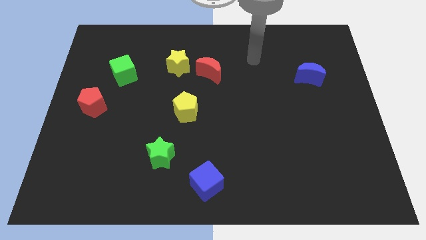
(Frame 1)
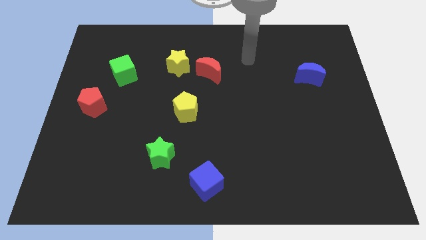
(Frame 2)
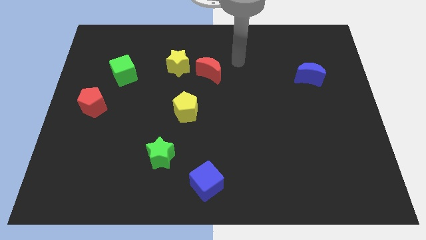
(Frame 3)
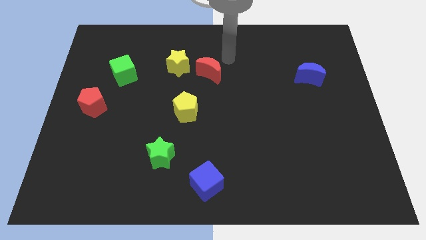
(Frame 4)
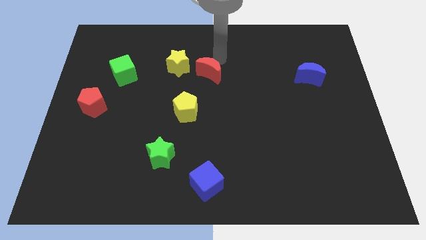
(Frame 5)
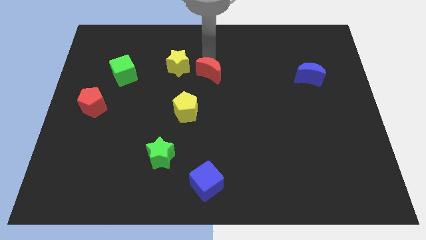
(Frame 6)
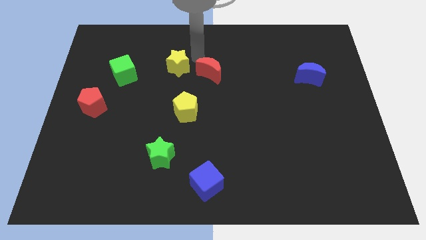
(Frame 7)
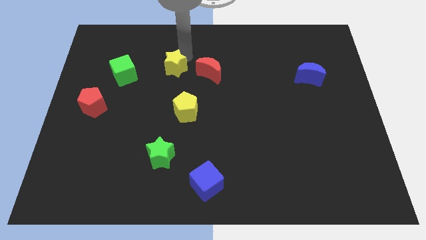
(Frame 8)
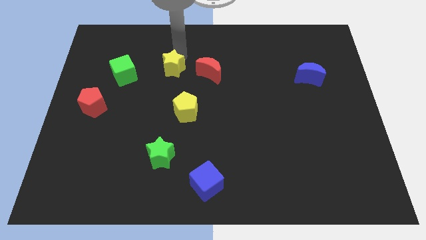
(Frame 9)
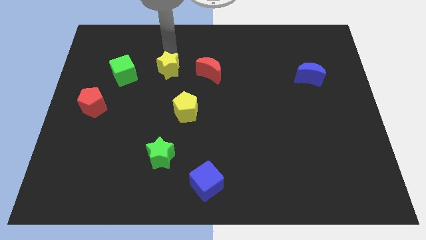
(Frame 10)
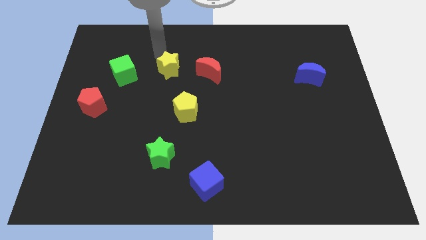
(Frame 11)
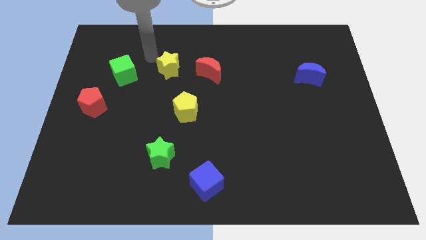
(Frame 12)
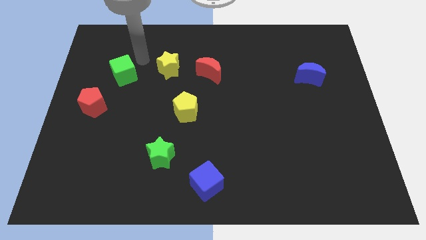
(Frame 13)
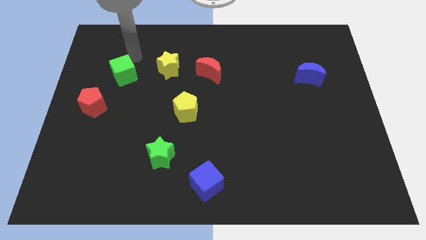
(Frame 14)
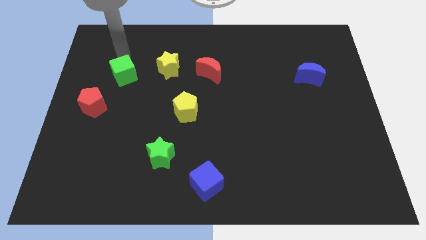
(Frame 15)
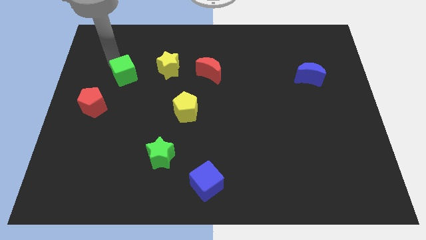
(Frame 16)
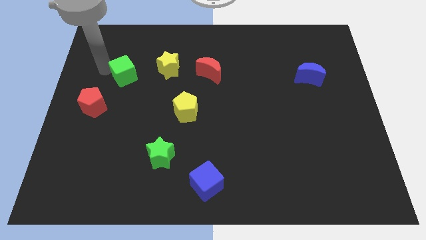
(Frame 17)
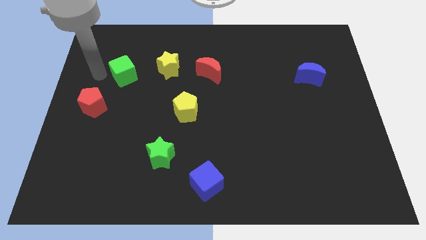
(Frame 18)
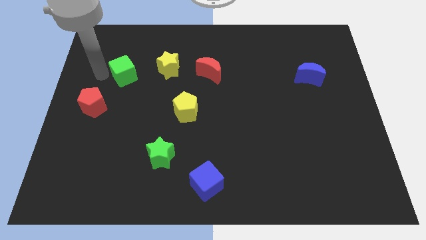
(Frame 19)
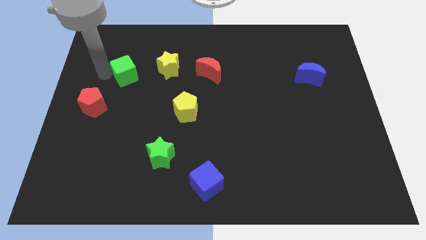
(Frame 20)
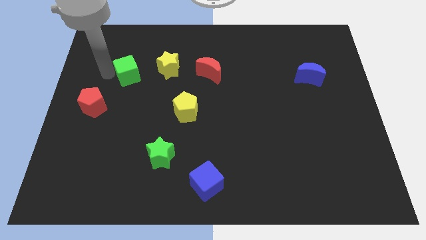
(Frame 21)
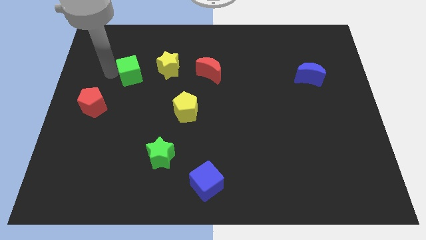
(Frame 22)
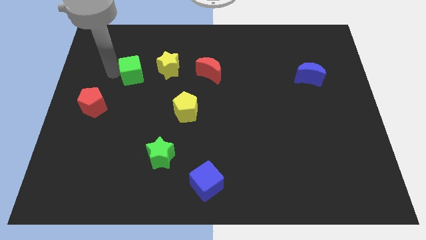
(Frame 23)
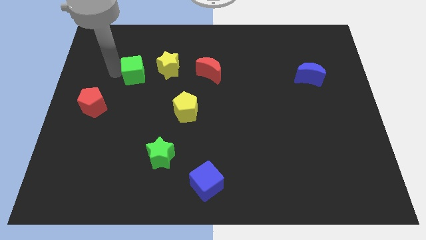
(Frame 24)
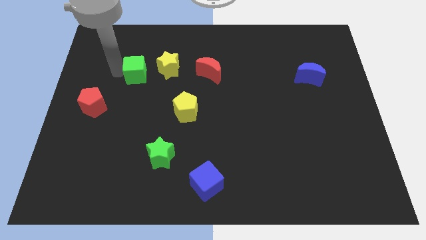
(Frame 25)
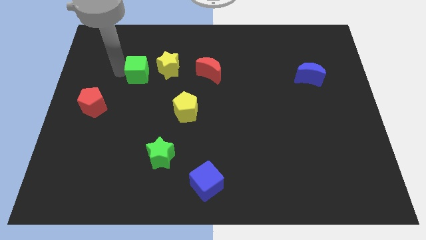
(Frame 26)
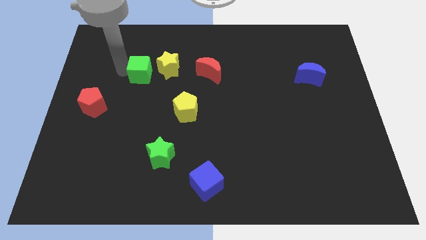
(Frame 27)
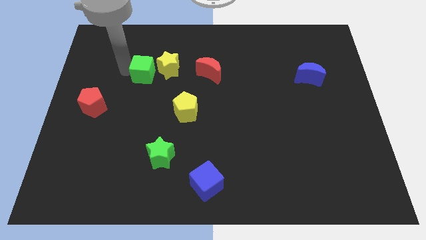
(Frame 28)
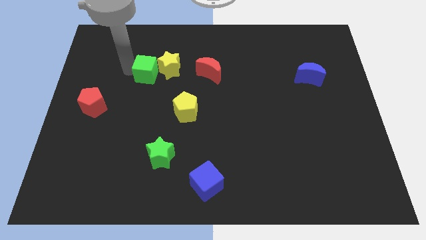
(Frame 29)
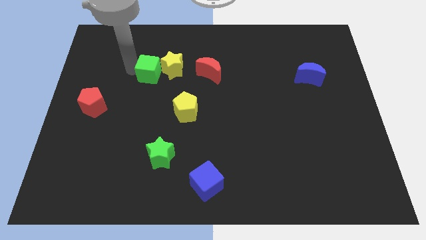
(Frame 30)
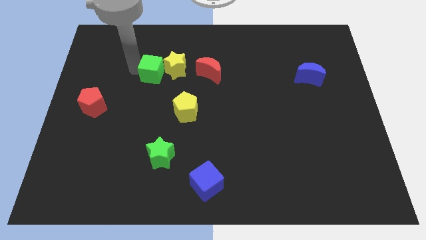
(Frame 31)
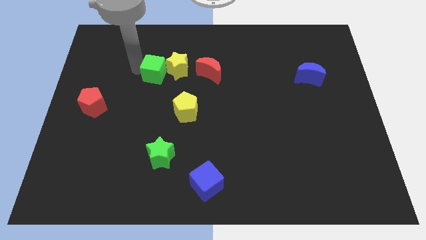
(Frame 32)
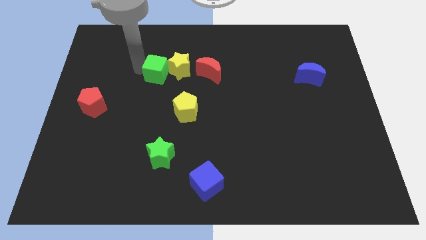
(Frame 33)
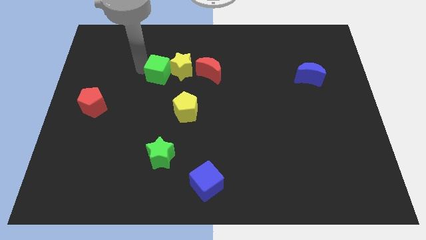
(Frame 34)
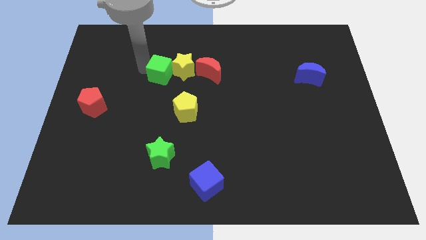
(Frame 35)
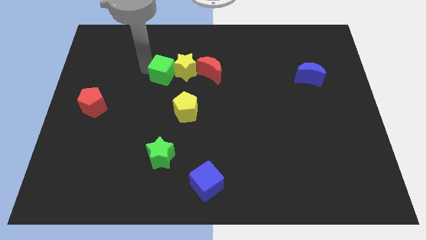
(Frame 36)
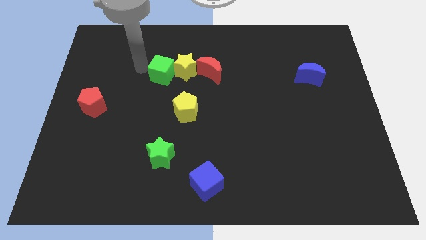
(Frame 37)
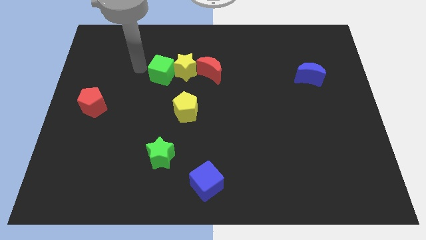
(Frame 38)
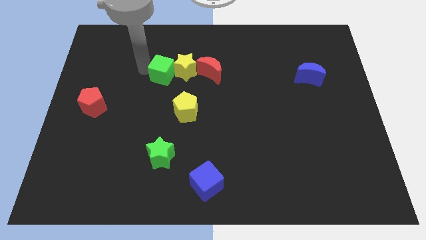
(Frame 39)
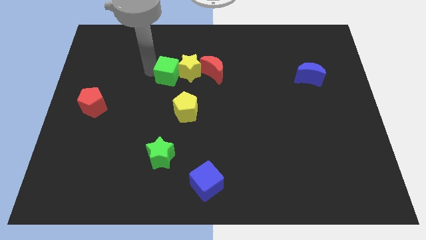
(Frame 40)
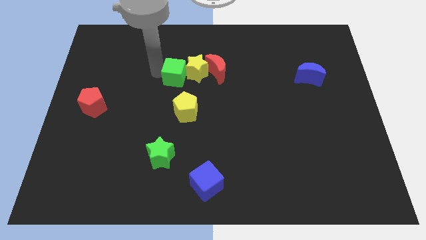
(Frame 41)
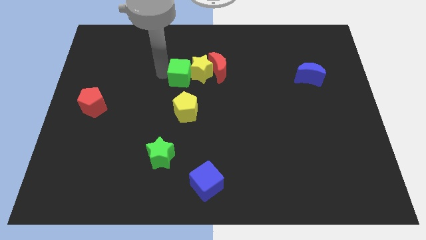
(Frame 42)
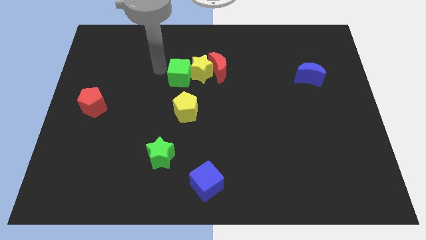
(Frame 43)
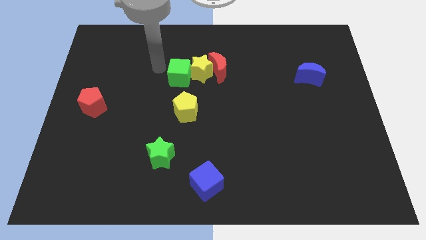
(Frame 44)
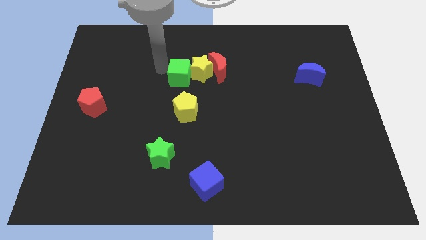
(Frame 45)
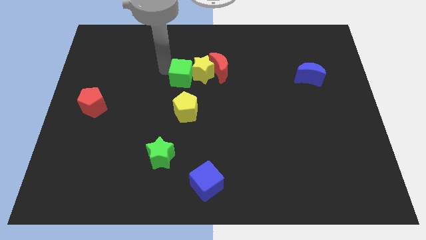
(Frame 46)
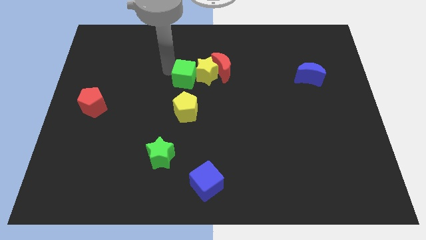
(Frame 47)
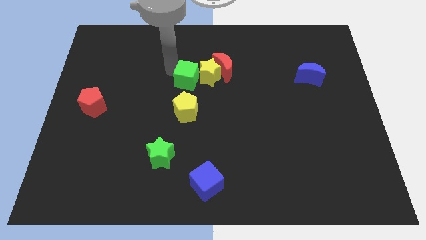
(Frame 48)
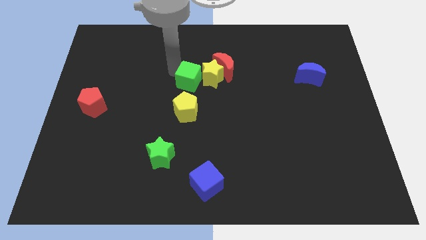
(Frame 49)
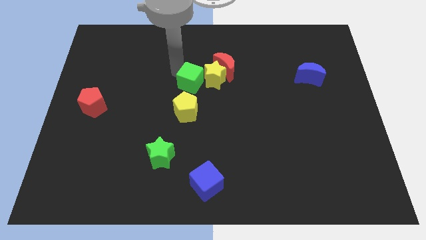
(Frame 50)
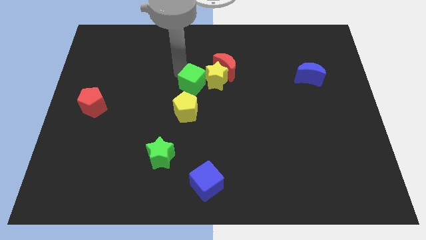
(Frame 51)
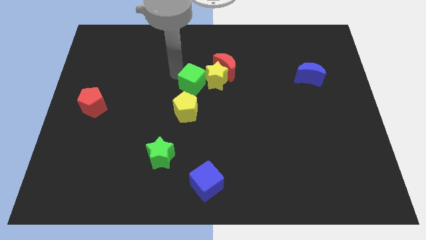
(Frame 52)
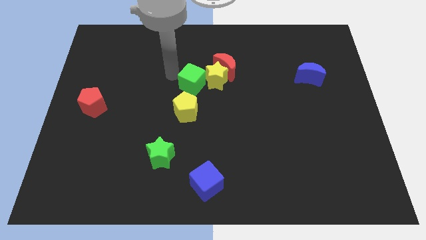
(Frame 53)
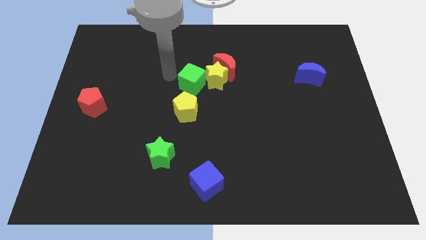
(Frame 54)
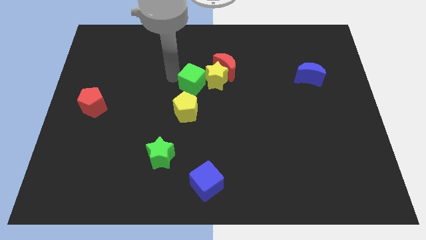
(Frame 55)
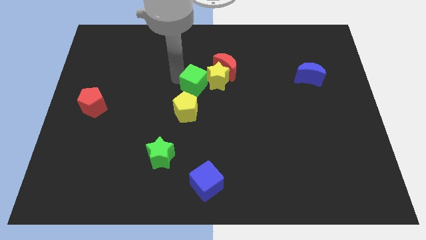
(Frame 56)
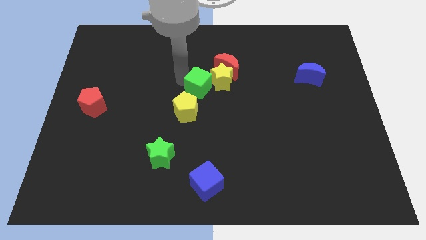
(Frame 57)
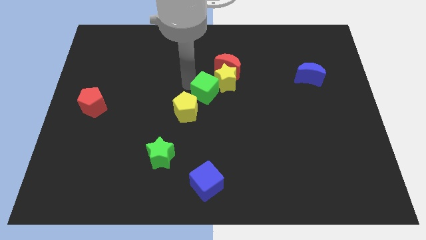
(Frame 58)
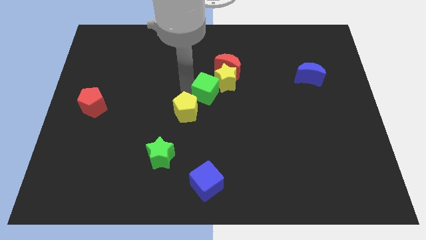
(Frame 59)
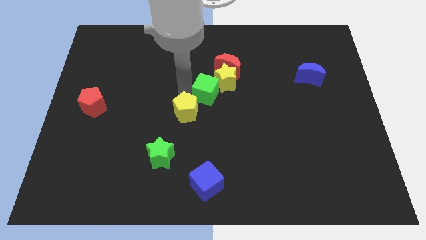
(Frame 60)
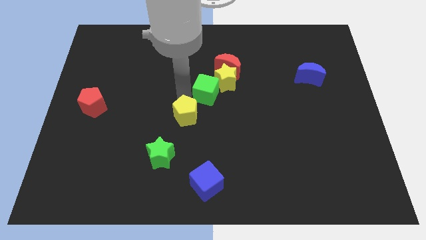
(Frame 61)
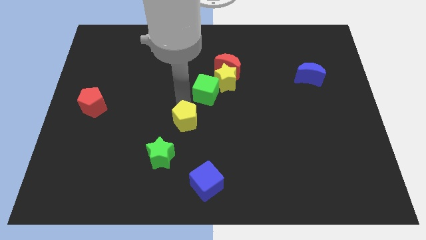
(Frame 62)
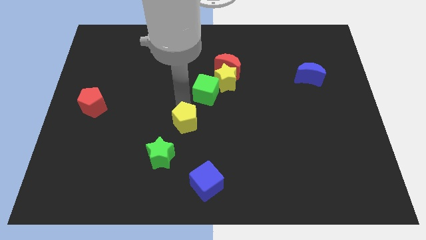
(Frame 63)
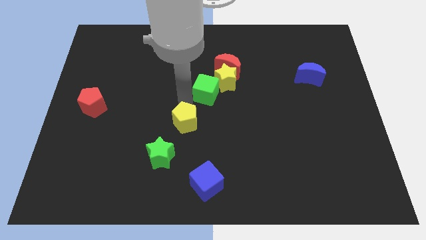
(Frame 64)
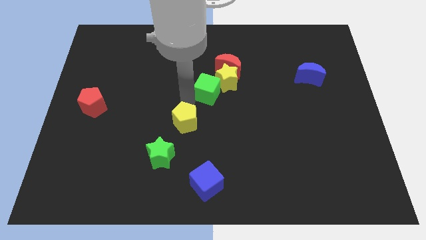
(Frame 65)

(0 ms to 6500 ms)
push the green cube to the right

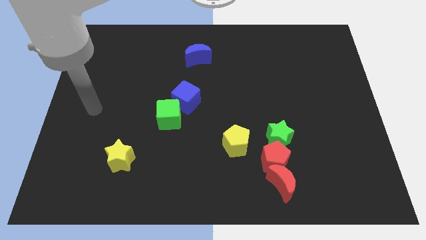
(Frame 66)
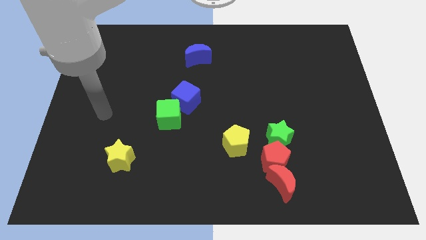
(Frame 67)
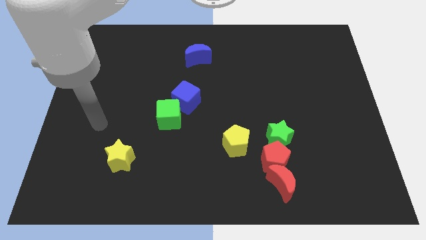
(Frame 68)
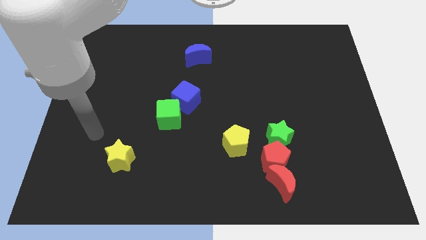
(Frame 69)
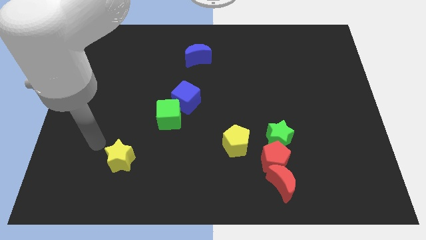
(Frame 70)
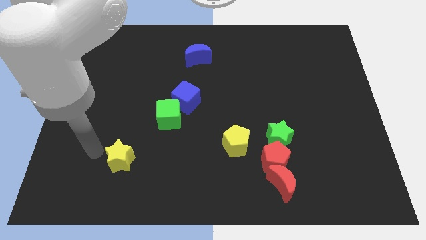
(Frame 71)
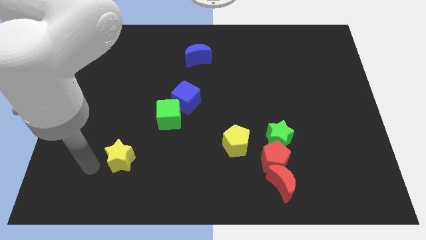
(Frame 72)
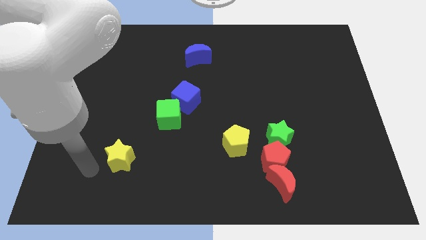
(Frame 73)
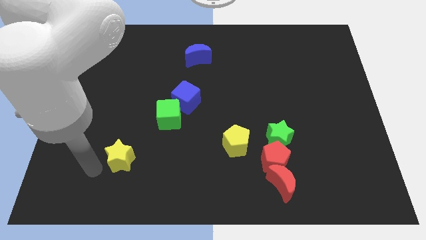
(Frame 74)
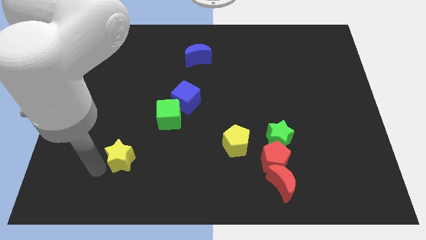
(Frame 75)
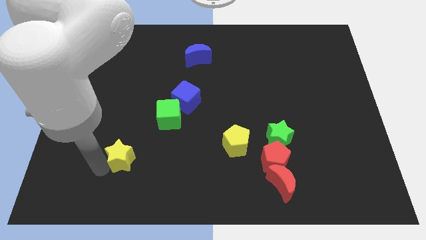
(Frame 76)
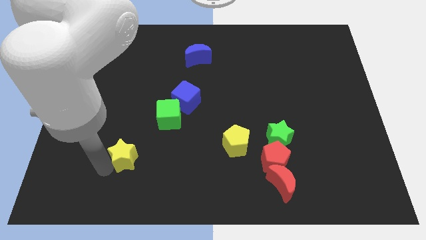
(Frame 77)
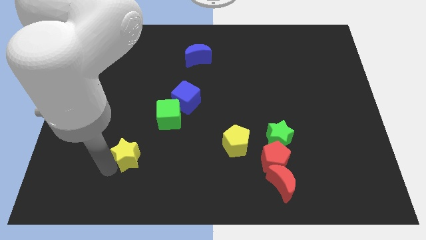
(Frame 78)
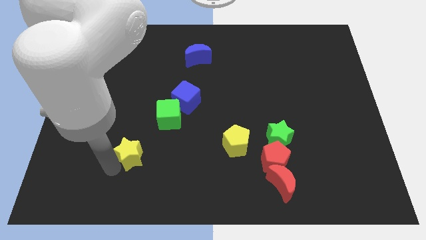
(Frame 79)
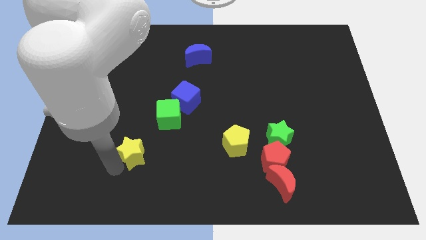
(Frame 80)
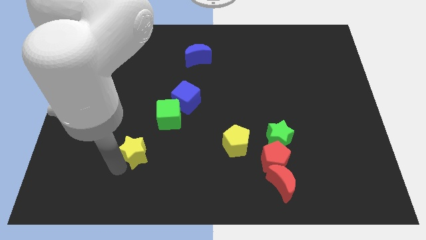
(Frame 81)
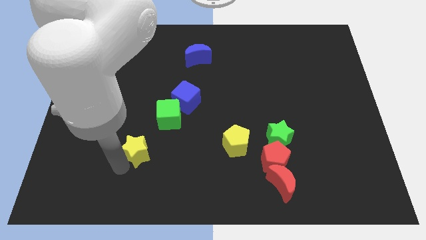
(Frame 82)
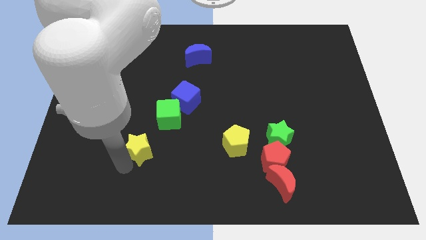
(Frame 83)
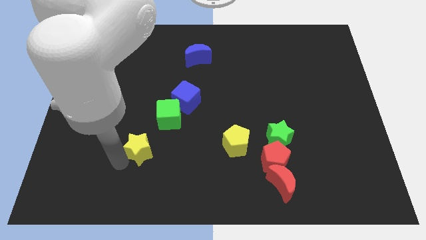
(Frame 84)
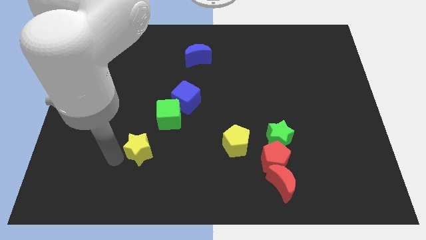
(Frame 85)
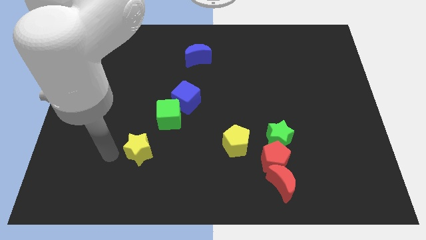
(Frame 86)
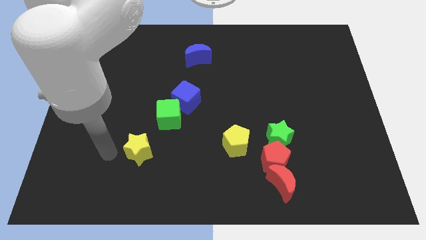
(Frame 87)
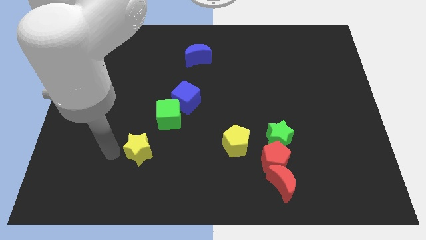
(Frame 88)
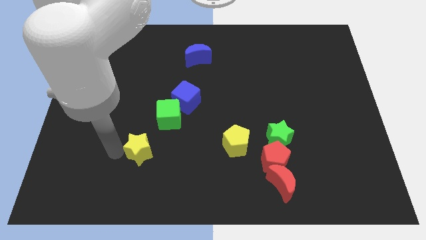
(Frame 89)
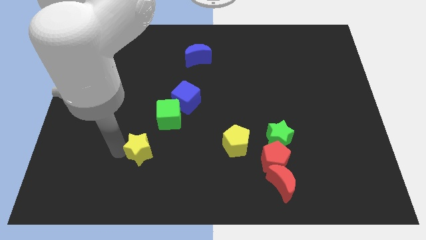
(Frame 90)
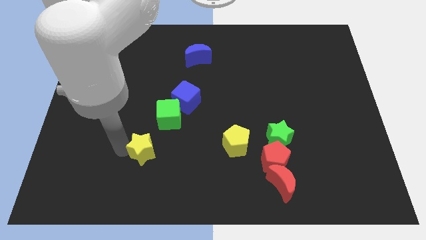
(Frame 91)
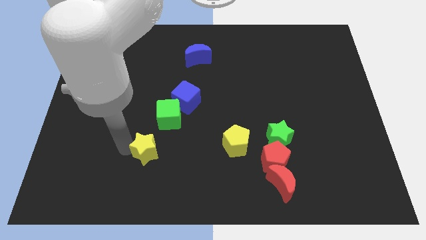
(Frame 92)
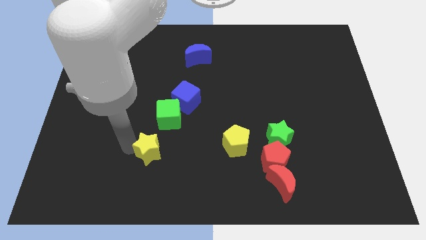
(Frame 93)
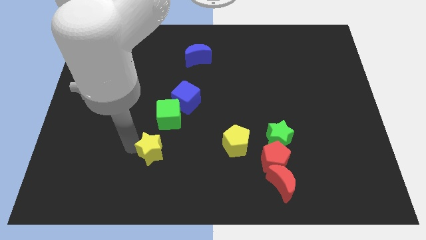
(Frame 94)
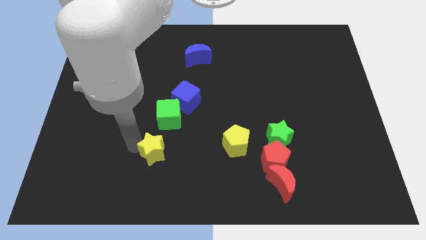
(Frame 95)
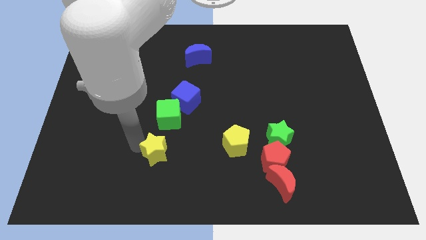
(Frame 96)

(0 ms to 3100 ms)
slide the yellow star right slightly
